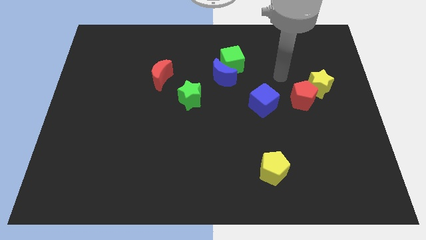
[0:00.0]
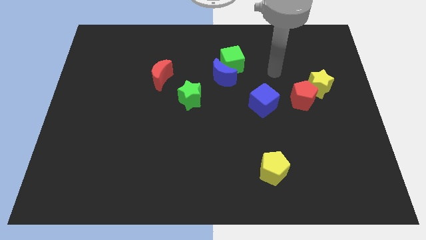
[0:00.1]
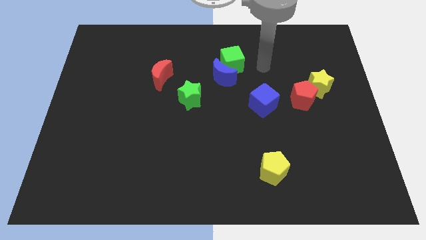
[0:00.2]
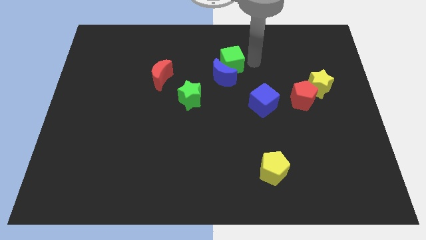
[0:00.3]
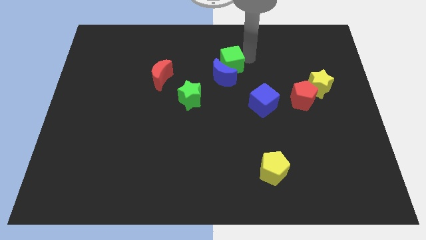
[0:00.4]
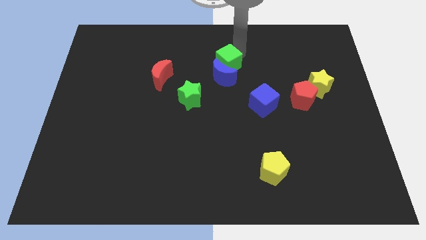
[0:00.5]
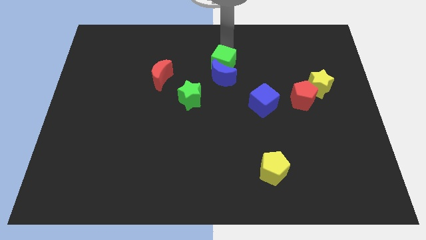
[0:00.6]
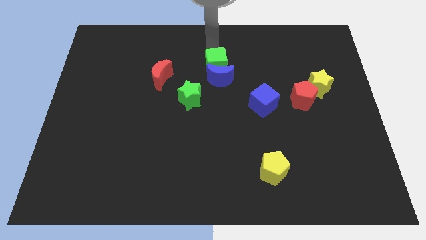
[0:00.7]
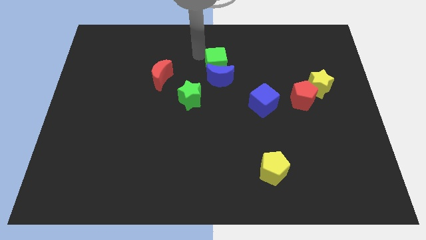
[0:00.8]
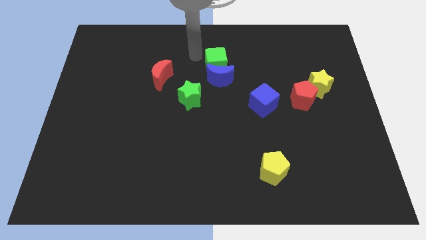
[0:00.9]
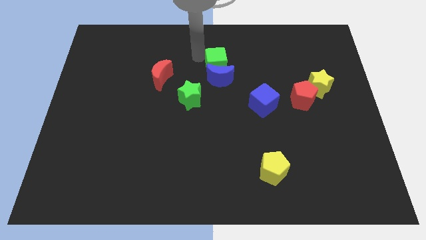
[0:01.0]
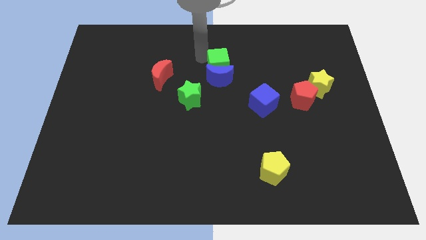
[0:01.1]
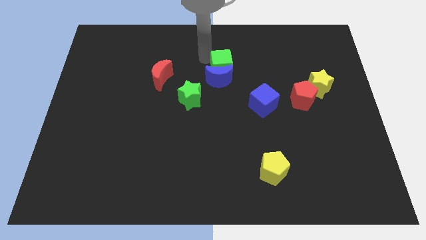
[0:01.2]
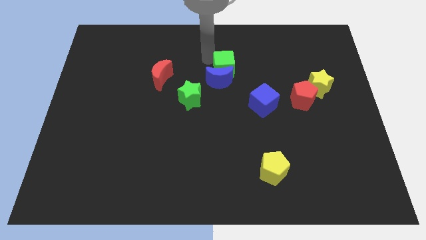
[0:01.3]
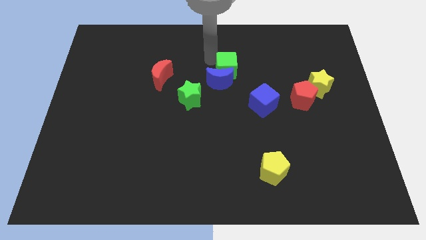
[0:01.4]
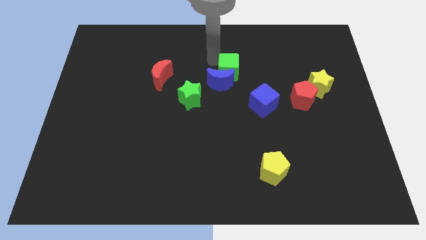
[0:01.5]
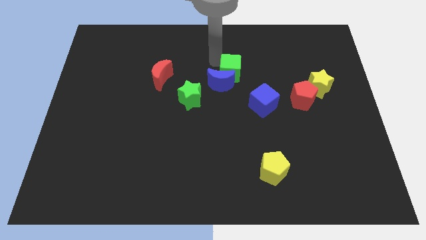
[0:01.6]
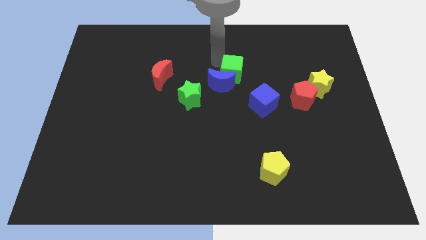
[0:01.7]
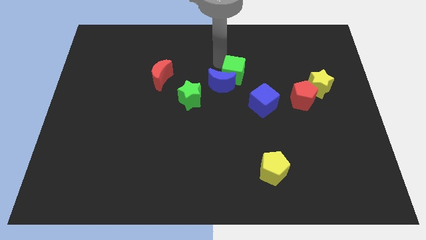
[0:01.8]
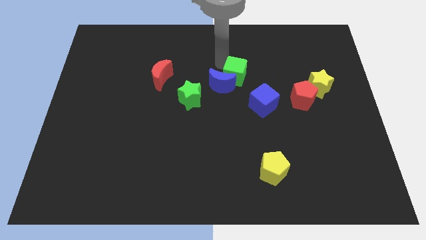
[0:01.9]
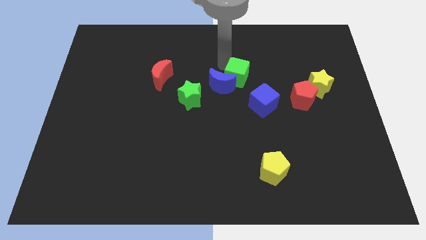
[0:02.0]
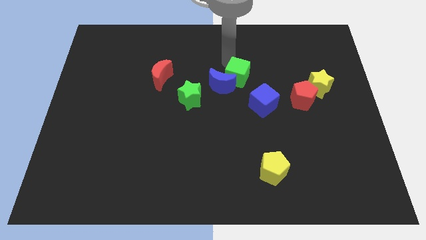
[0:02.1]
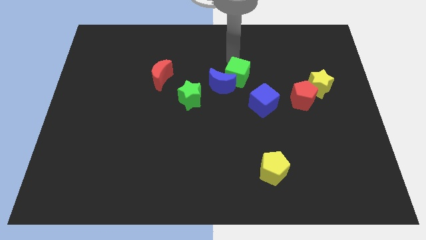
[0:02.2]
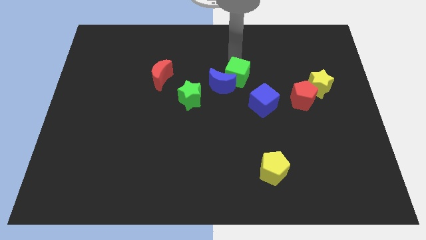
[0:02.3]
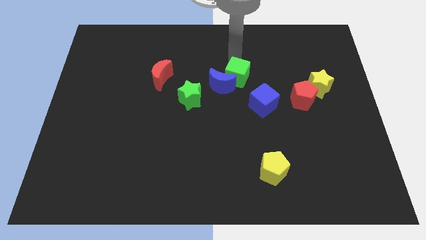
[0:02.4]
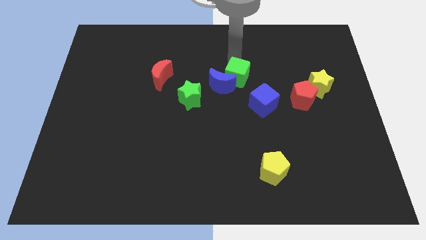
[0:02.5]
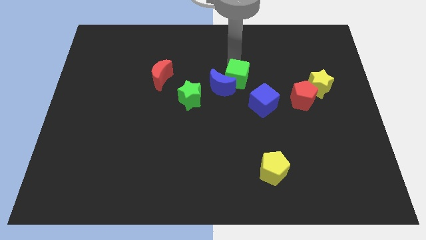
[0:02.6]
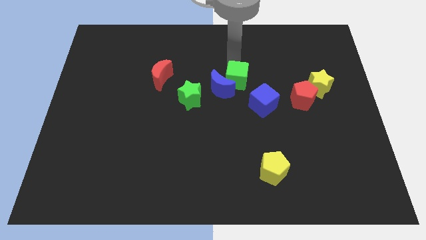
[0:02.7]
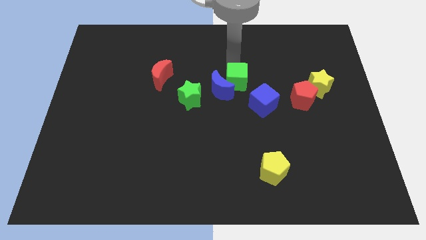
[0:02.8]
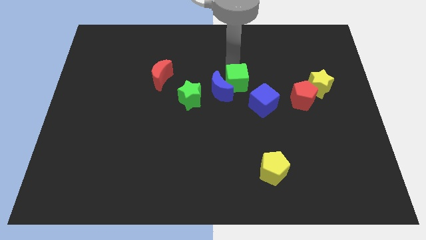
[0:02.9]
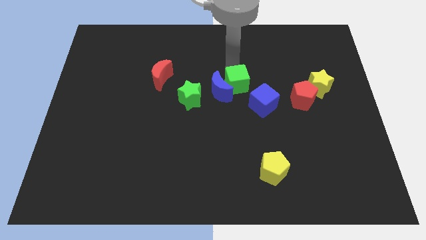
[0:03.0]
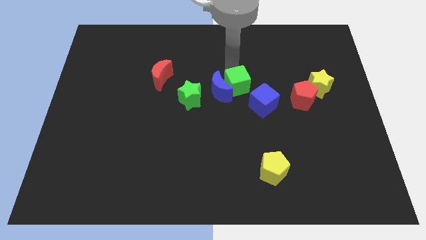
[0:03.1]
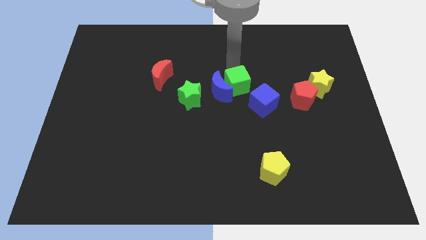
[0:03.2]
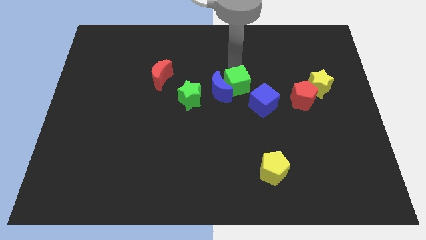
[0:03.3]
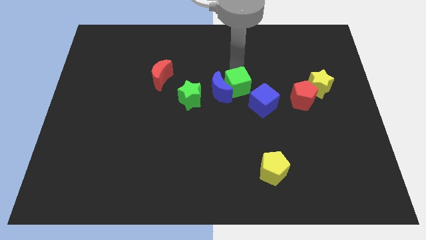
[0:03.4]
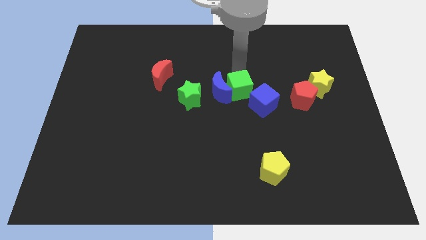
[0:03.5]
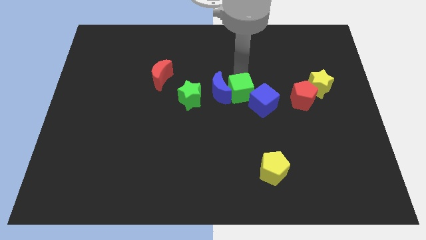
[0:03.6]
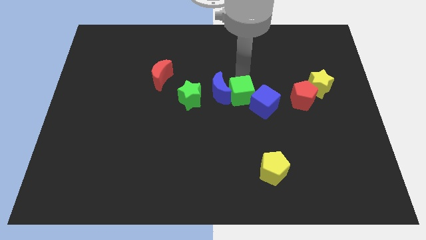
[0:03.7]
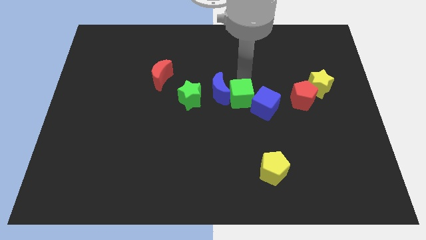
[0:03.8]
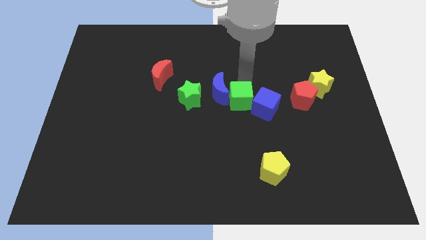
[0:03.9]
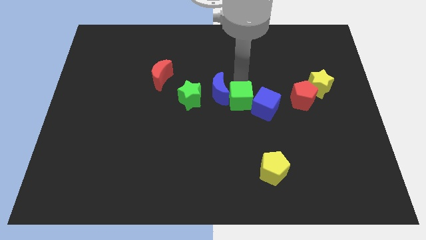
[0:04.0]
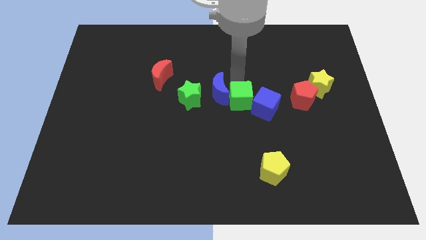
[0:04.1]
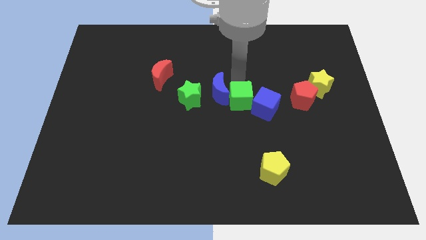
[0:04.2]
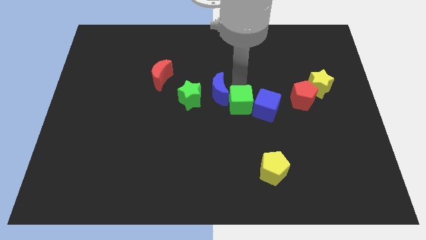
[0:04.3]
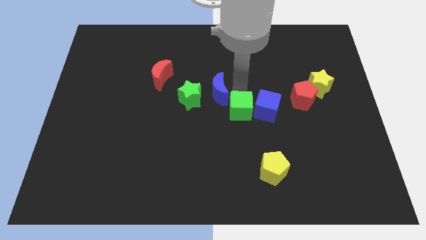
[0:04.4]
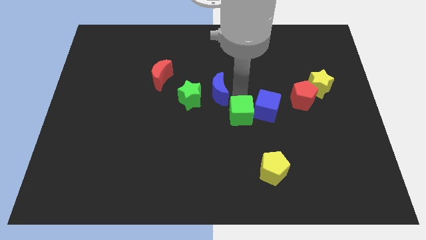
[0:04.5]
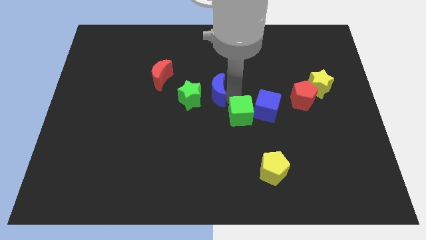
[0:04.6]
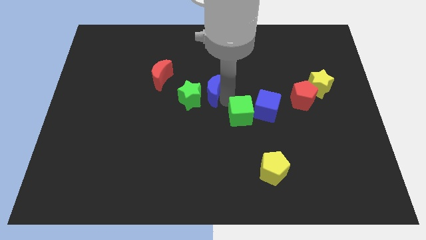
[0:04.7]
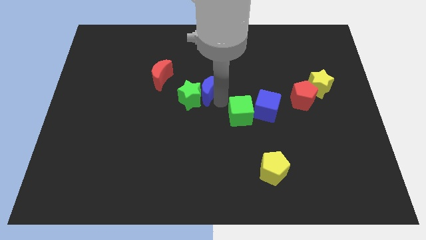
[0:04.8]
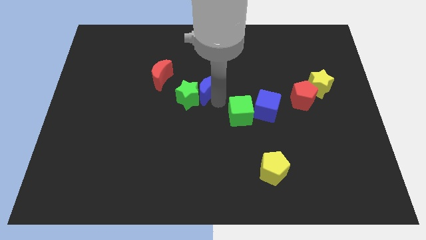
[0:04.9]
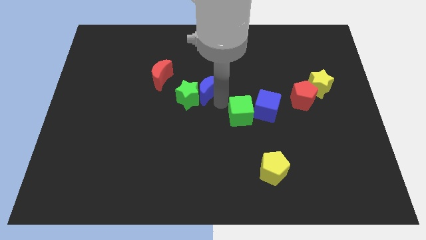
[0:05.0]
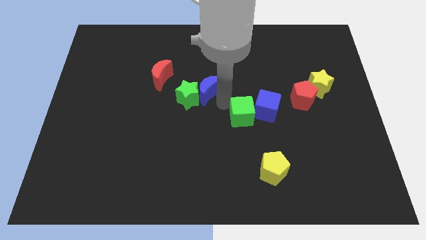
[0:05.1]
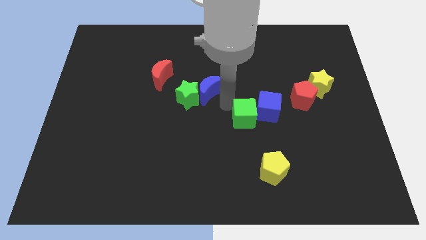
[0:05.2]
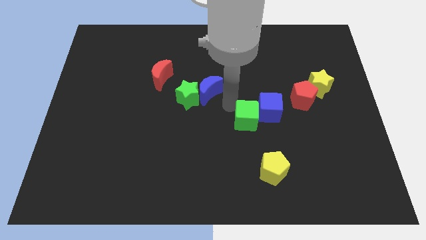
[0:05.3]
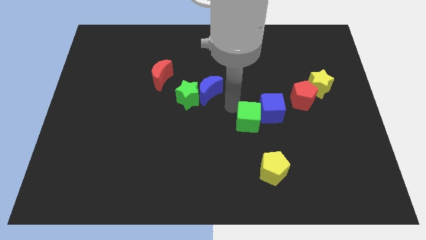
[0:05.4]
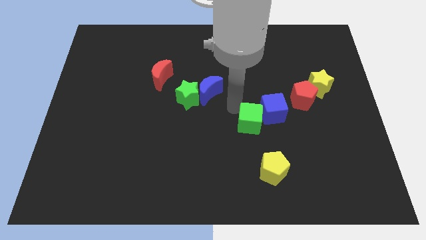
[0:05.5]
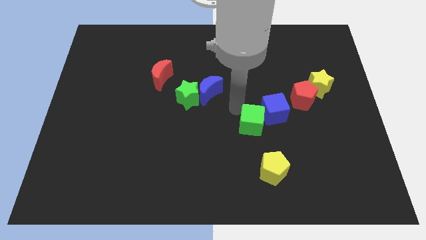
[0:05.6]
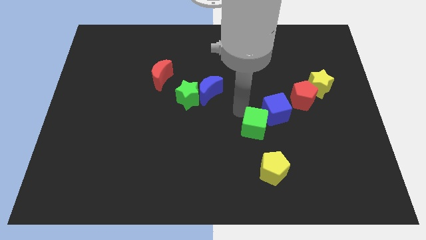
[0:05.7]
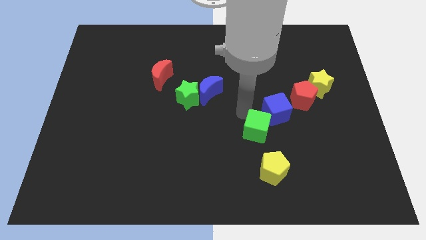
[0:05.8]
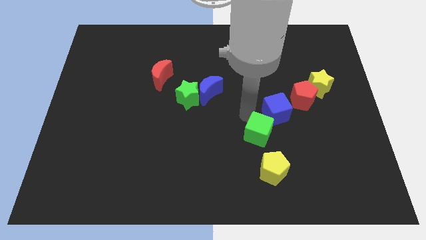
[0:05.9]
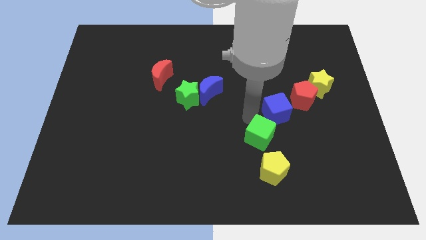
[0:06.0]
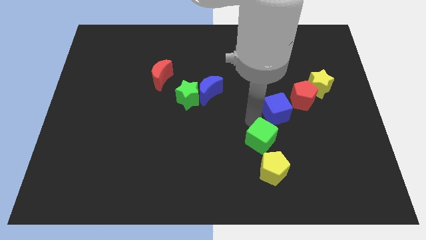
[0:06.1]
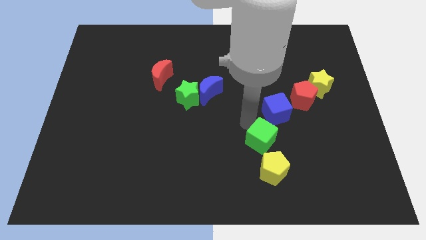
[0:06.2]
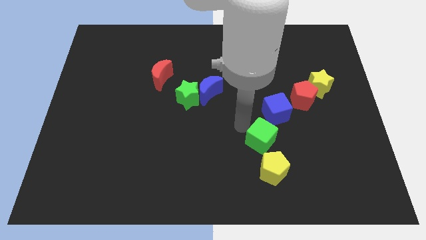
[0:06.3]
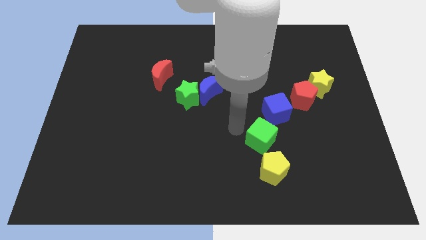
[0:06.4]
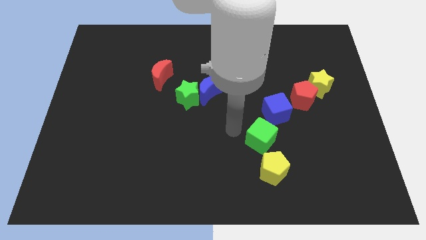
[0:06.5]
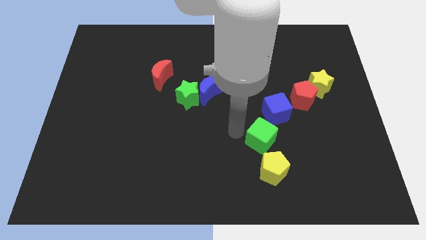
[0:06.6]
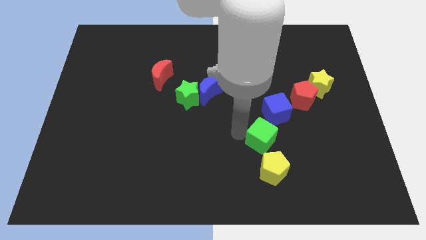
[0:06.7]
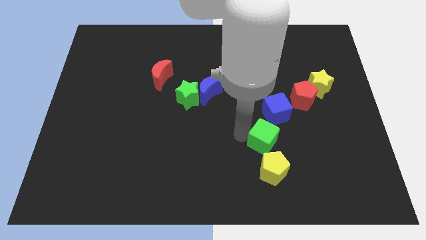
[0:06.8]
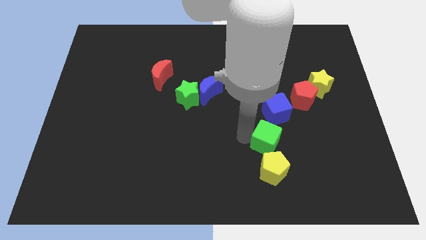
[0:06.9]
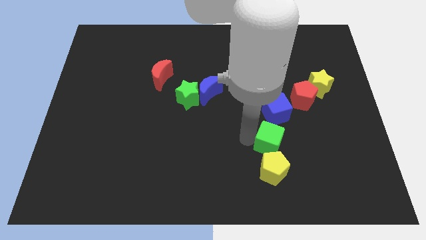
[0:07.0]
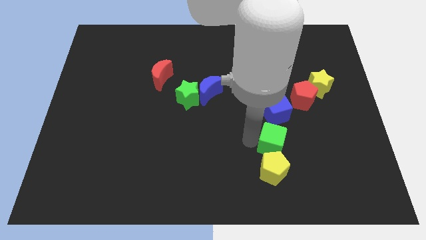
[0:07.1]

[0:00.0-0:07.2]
move the green cube to the top right of the yellow pentagon
